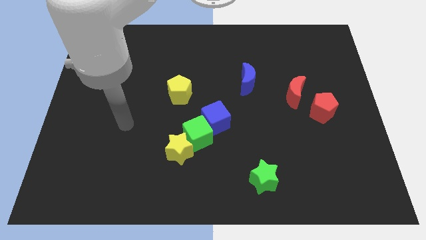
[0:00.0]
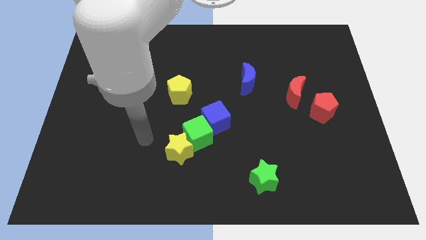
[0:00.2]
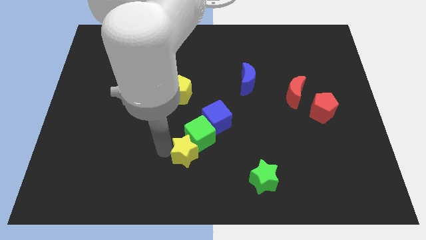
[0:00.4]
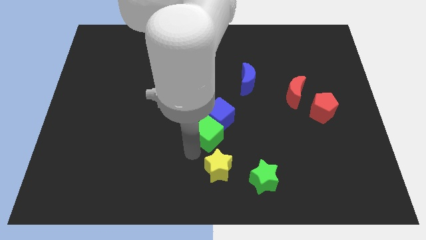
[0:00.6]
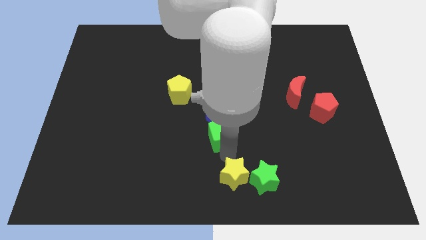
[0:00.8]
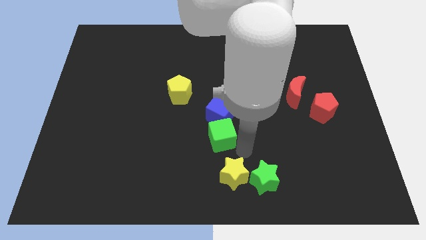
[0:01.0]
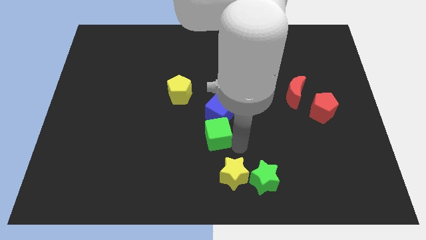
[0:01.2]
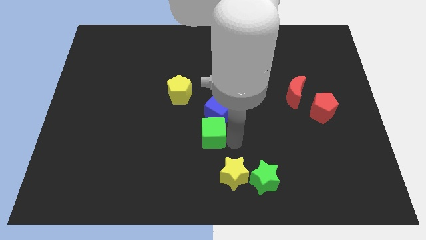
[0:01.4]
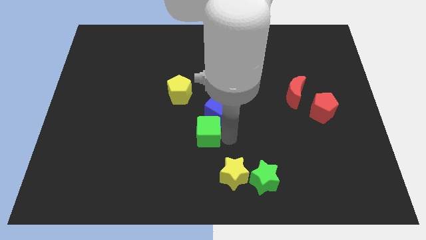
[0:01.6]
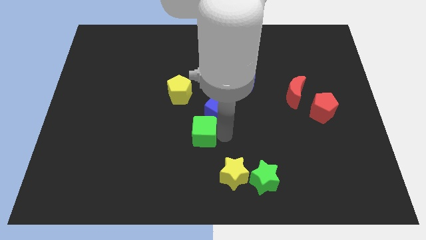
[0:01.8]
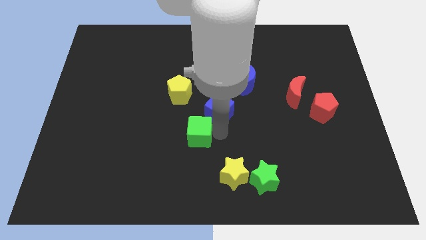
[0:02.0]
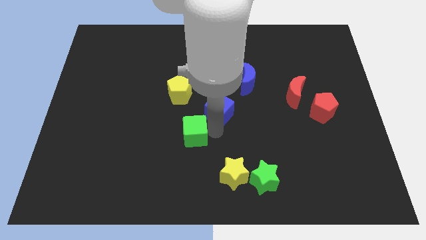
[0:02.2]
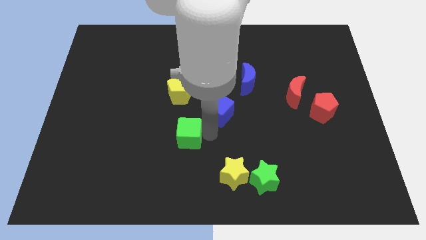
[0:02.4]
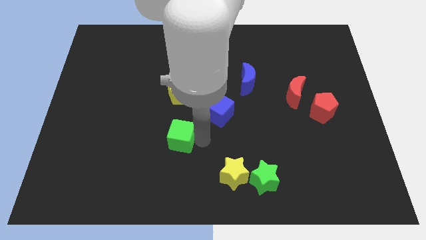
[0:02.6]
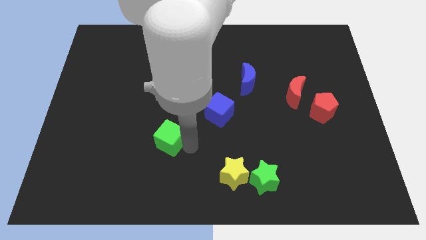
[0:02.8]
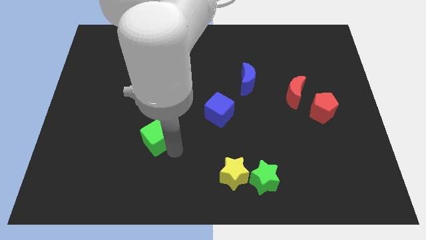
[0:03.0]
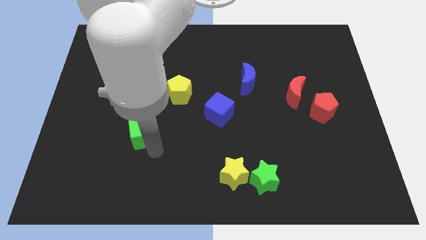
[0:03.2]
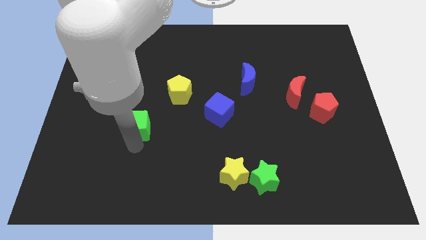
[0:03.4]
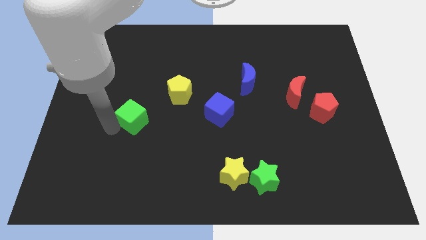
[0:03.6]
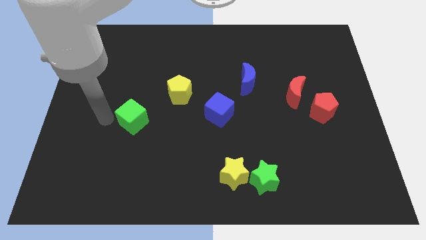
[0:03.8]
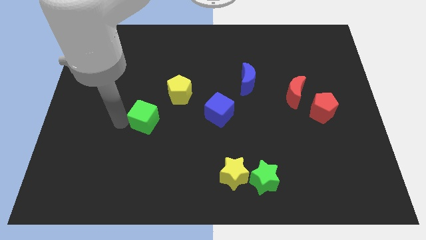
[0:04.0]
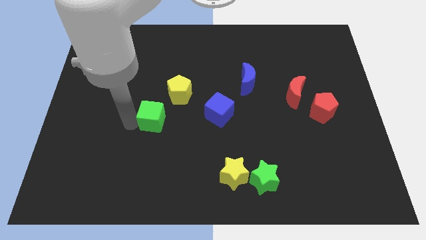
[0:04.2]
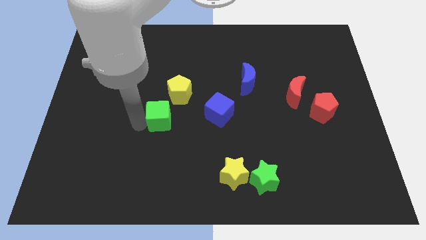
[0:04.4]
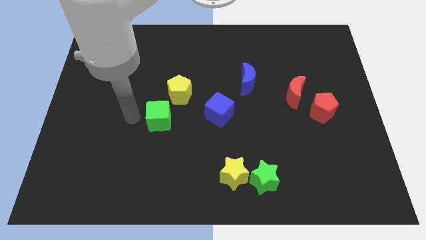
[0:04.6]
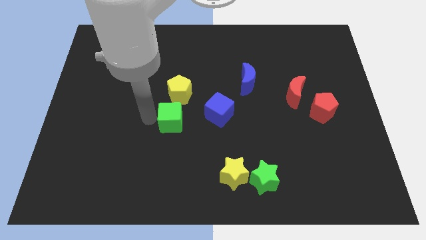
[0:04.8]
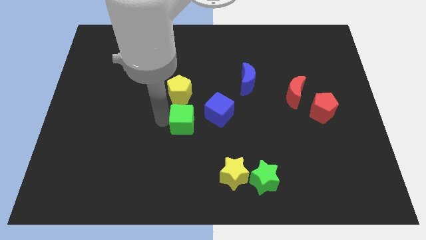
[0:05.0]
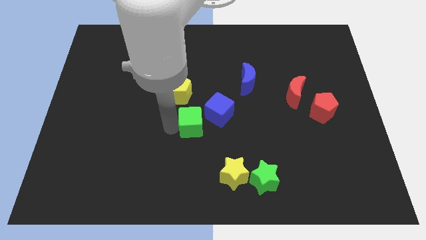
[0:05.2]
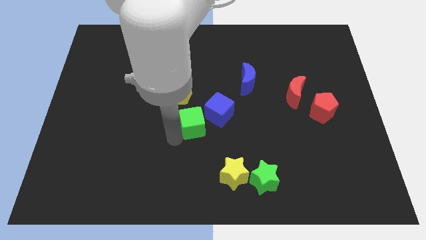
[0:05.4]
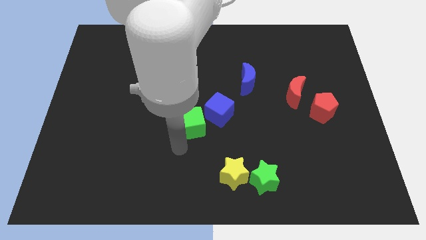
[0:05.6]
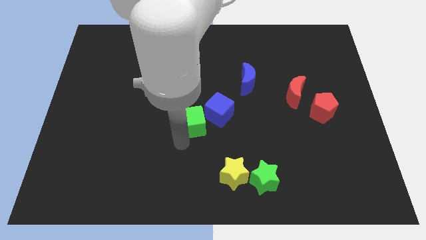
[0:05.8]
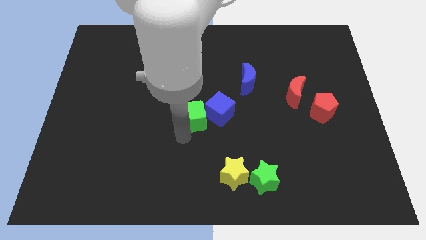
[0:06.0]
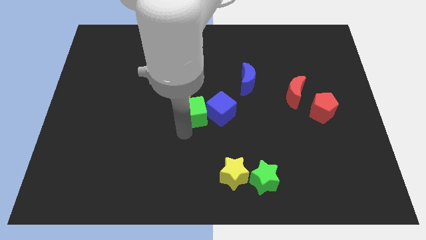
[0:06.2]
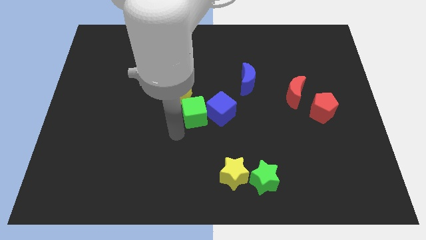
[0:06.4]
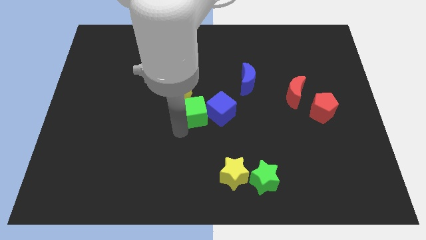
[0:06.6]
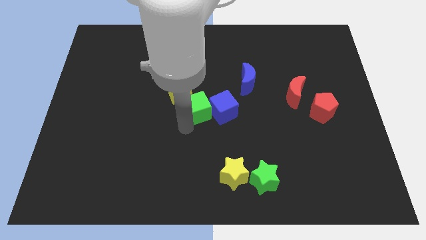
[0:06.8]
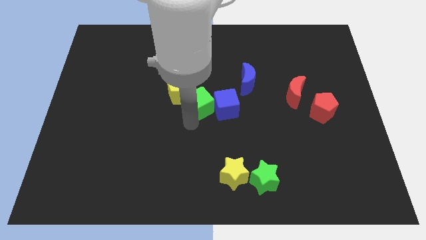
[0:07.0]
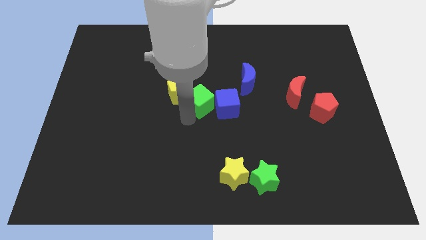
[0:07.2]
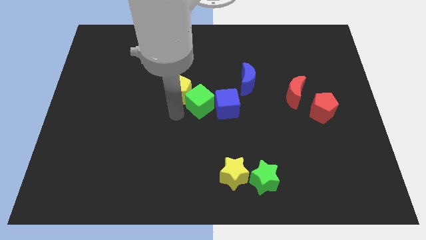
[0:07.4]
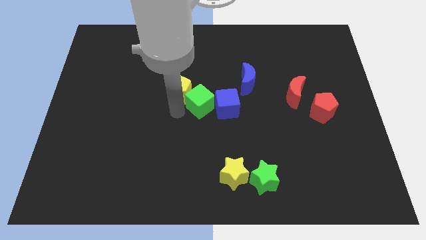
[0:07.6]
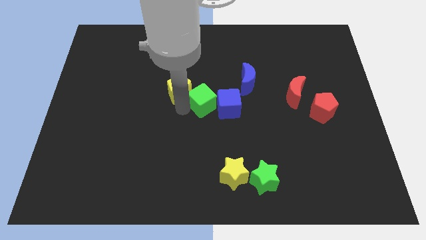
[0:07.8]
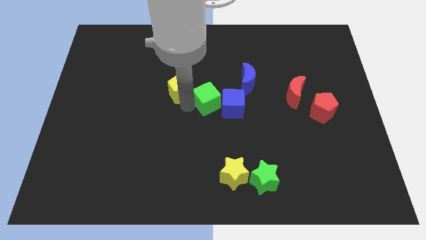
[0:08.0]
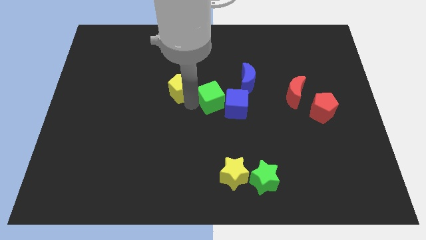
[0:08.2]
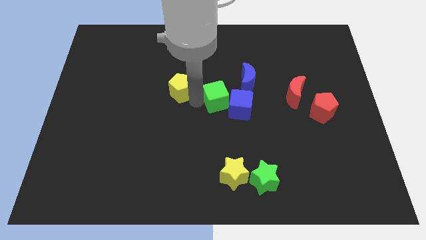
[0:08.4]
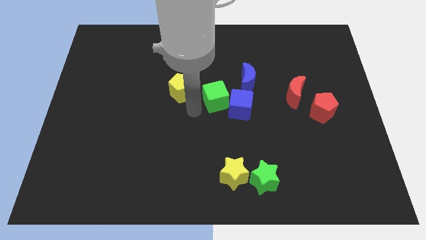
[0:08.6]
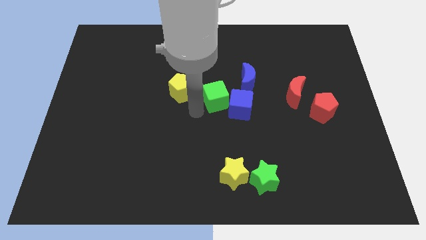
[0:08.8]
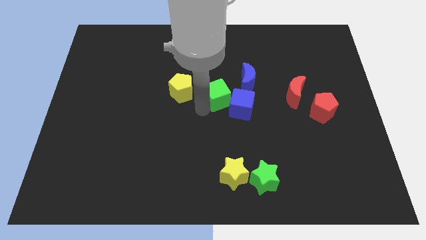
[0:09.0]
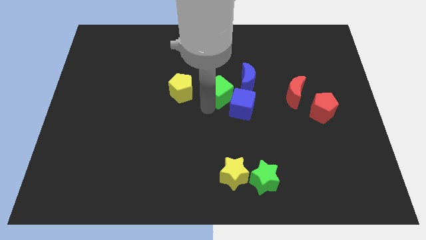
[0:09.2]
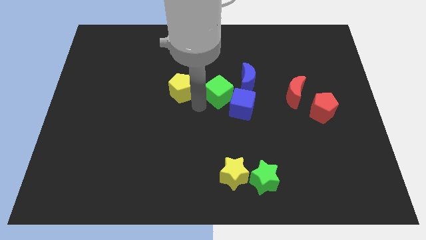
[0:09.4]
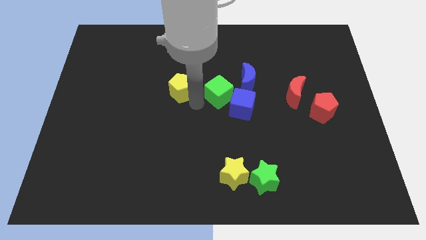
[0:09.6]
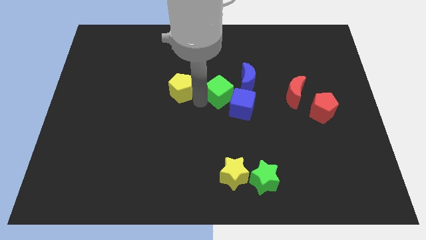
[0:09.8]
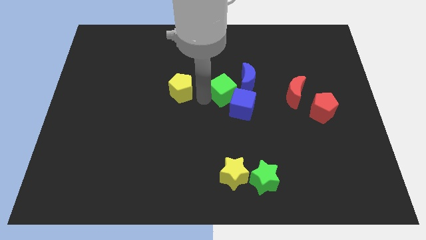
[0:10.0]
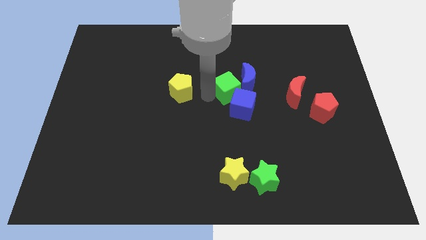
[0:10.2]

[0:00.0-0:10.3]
move the green cube to the blue moon

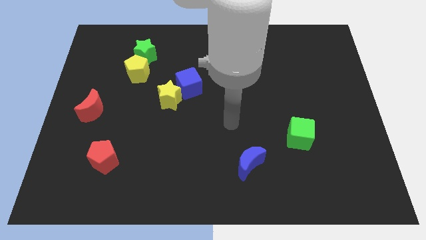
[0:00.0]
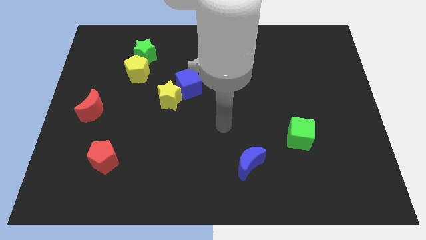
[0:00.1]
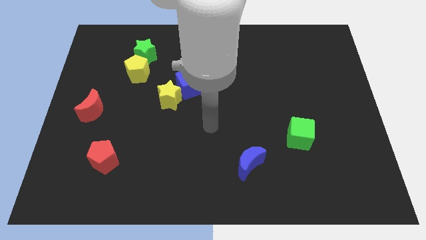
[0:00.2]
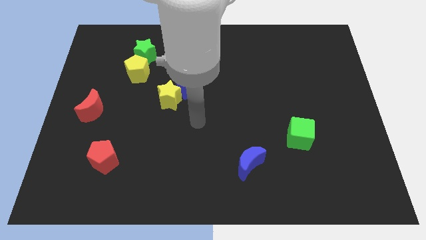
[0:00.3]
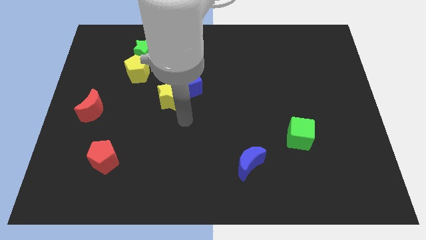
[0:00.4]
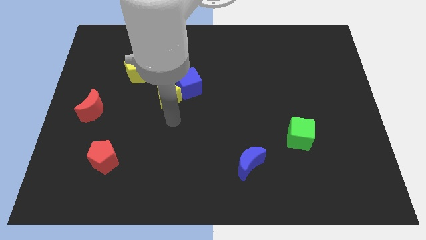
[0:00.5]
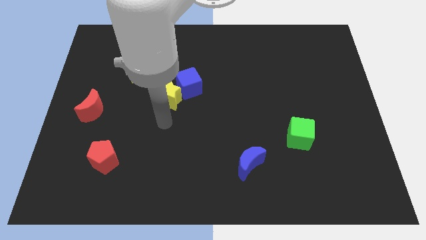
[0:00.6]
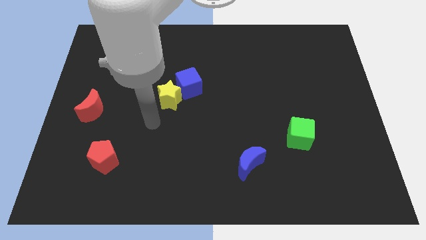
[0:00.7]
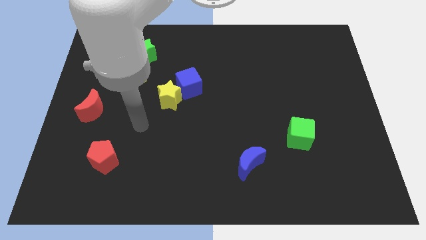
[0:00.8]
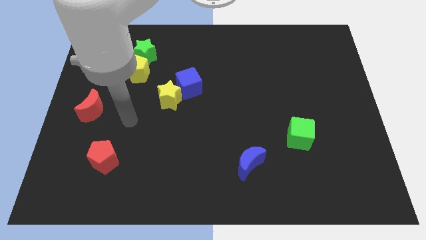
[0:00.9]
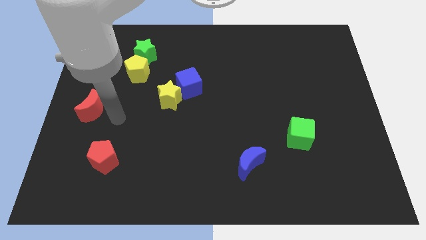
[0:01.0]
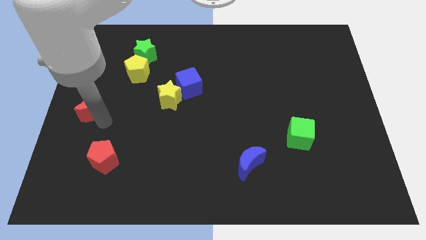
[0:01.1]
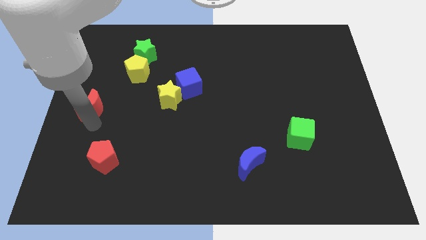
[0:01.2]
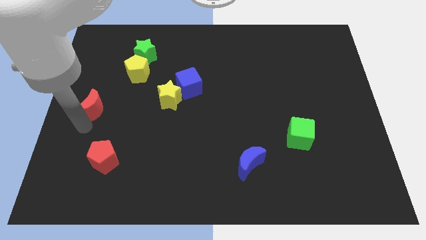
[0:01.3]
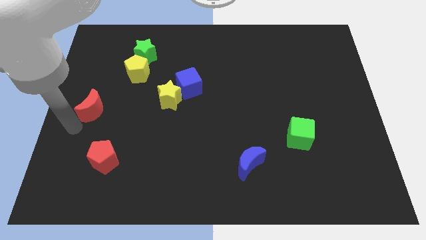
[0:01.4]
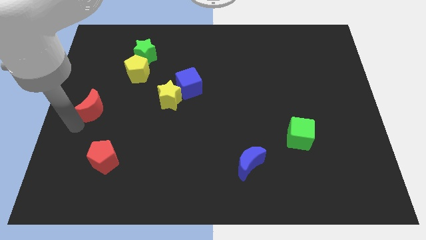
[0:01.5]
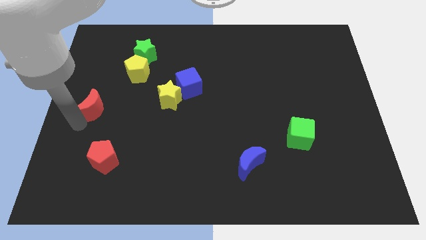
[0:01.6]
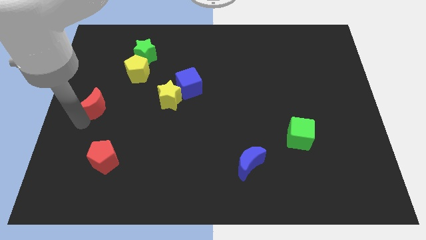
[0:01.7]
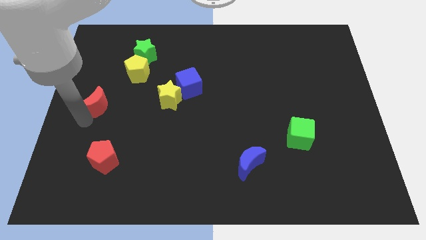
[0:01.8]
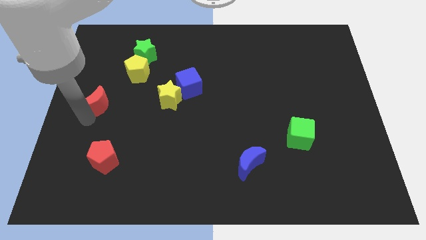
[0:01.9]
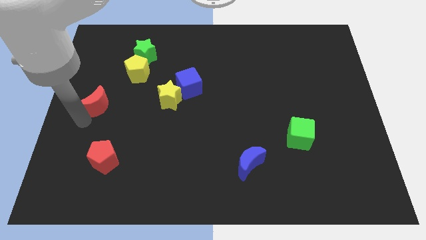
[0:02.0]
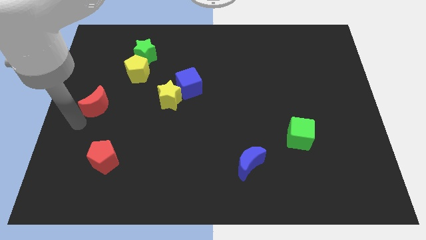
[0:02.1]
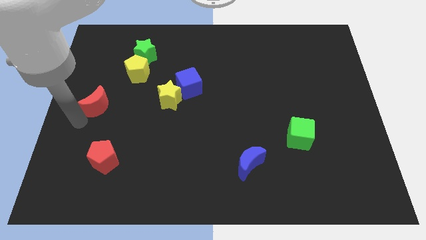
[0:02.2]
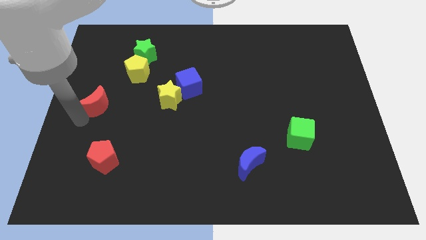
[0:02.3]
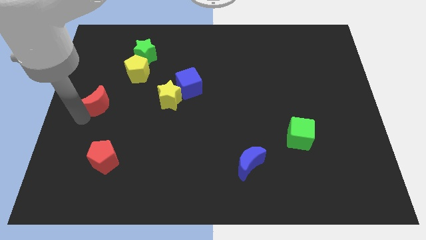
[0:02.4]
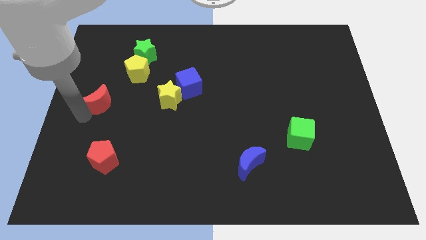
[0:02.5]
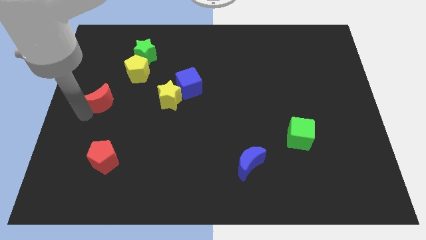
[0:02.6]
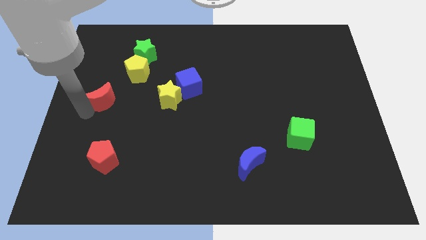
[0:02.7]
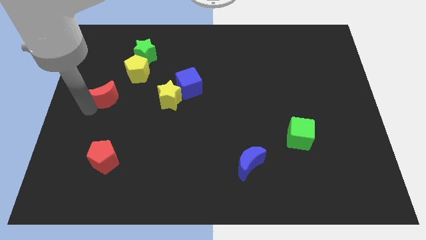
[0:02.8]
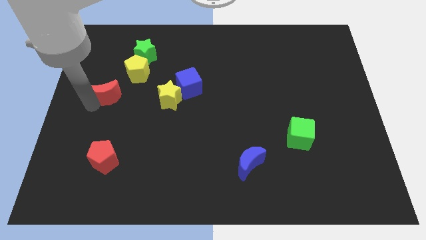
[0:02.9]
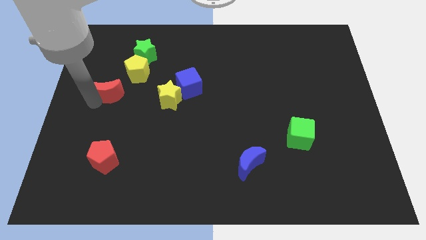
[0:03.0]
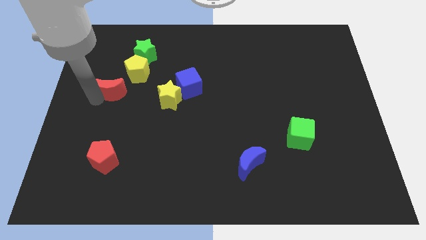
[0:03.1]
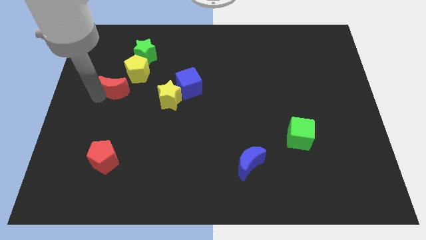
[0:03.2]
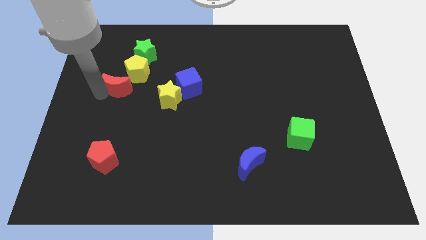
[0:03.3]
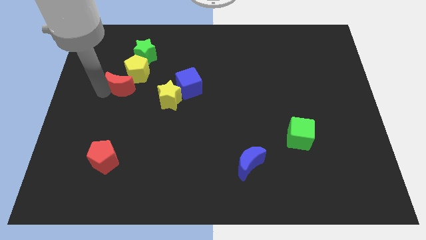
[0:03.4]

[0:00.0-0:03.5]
slide the red moon to the yellow pentagon
